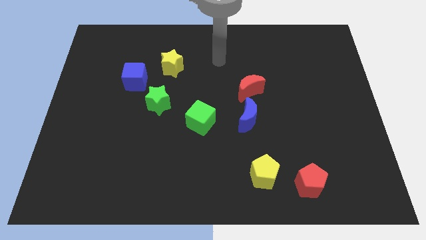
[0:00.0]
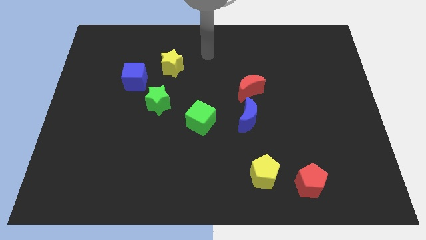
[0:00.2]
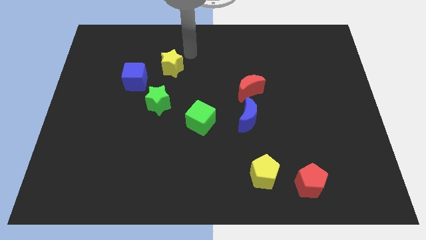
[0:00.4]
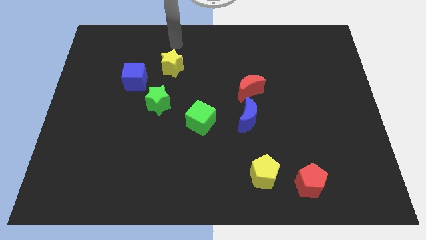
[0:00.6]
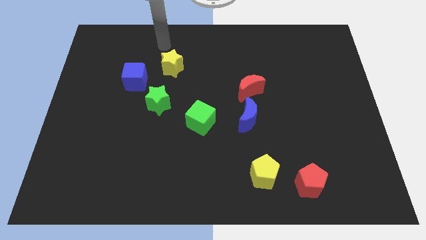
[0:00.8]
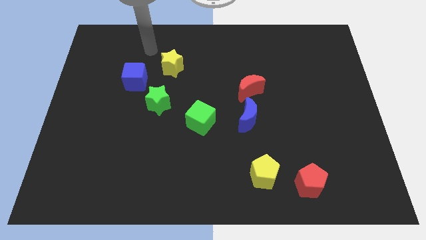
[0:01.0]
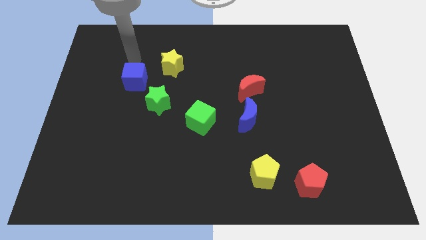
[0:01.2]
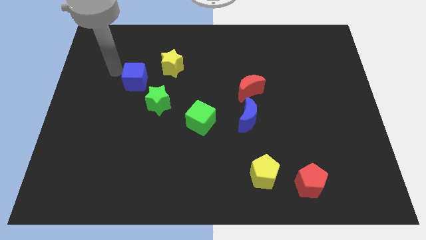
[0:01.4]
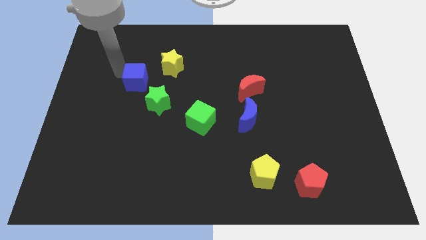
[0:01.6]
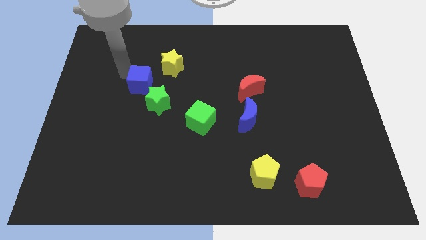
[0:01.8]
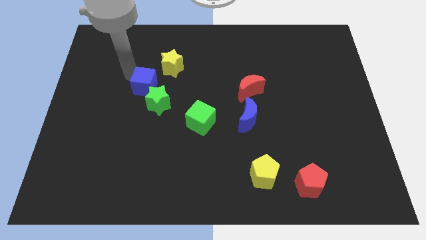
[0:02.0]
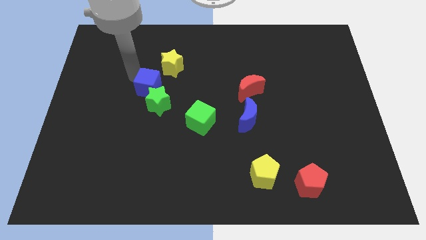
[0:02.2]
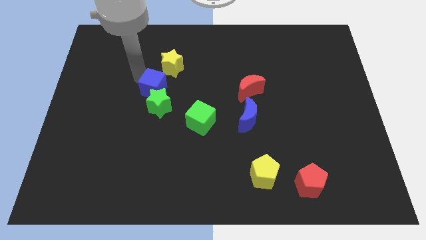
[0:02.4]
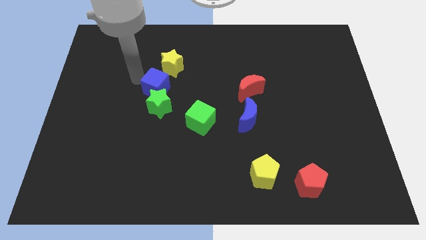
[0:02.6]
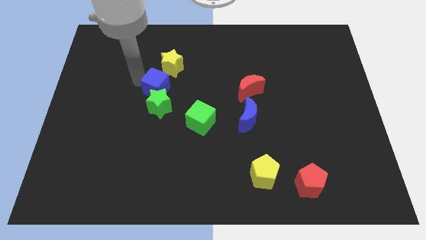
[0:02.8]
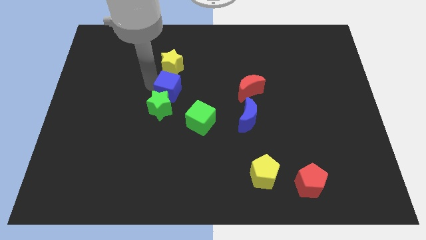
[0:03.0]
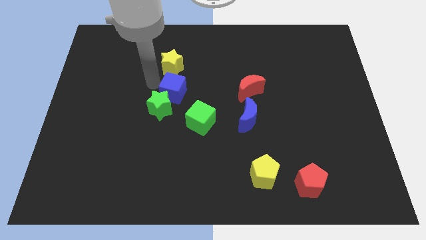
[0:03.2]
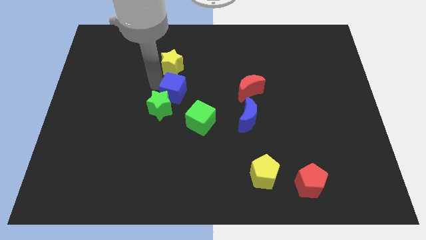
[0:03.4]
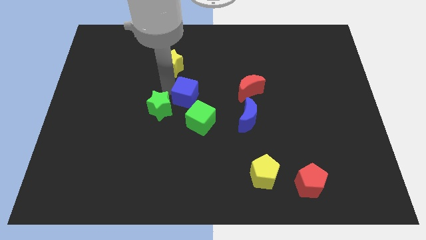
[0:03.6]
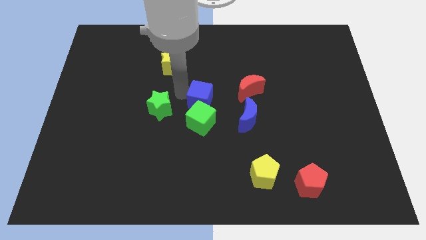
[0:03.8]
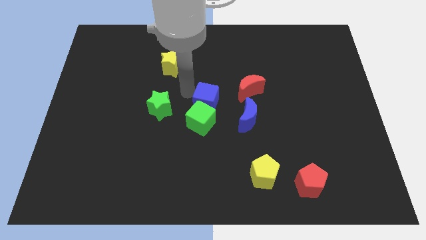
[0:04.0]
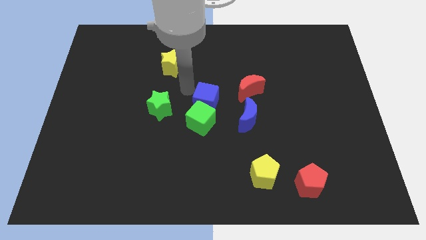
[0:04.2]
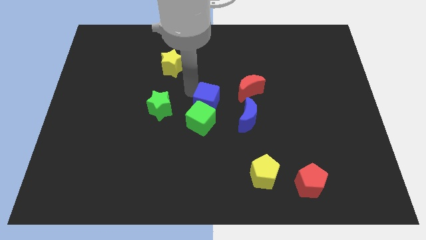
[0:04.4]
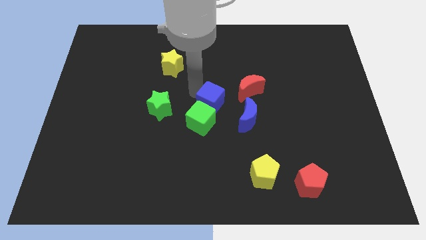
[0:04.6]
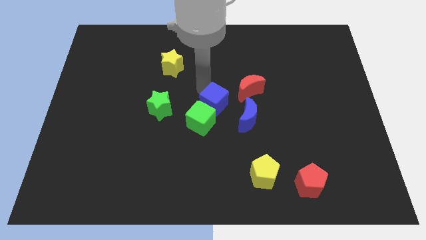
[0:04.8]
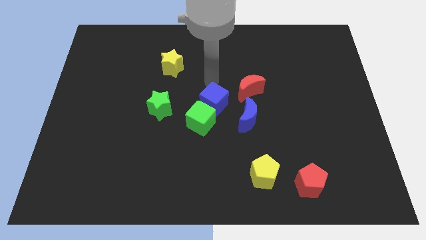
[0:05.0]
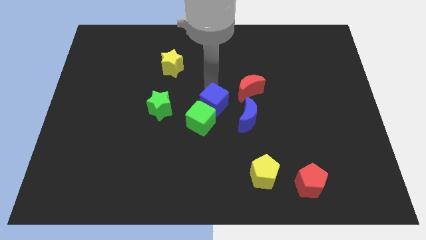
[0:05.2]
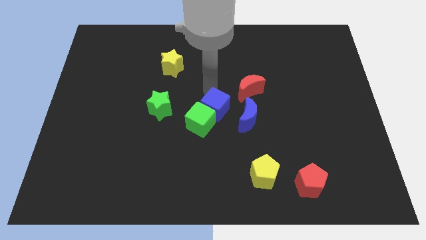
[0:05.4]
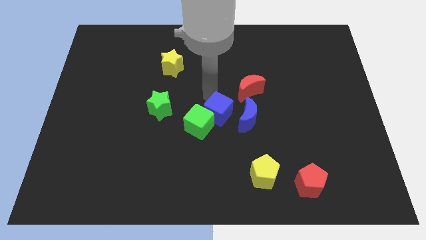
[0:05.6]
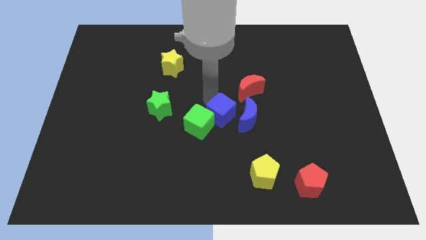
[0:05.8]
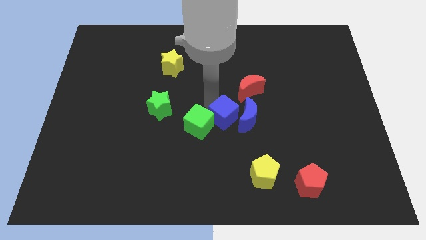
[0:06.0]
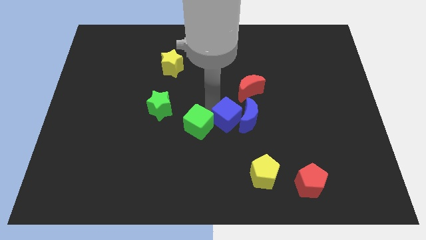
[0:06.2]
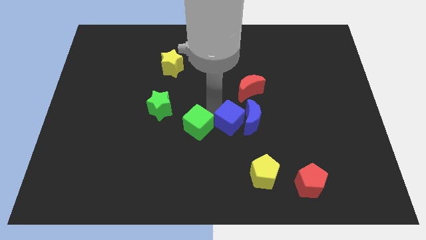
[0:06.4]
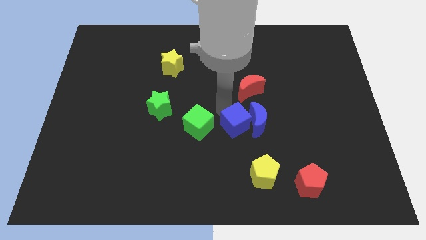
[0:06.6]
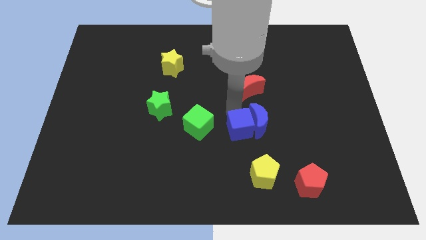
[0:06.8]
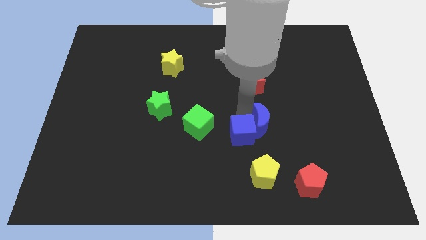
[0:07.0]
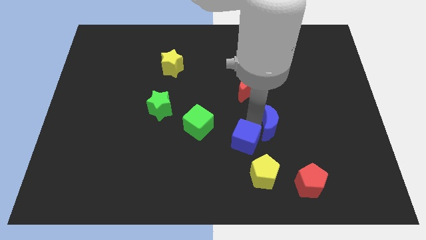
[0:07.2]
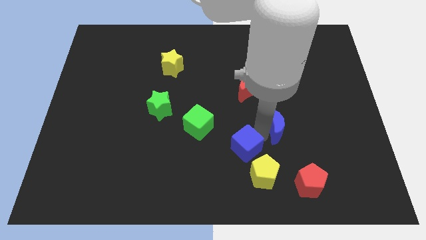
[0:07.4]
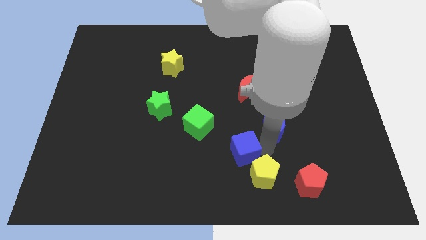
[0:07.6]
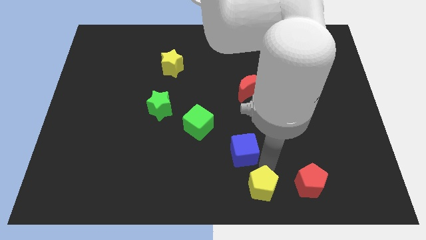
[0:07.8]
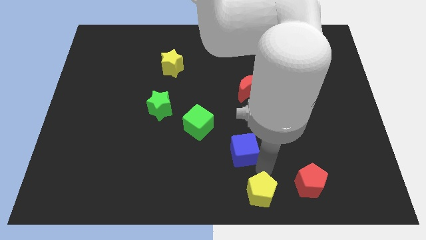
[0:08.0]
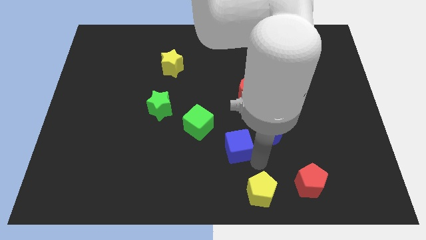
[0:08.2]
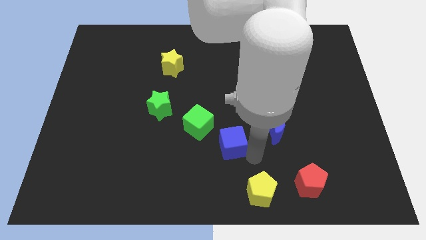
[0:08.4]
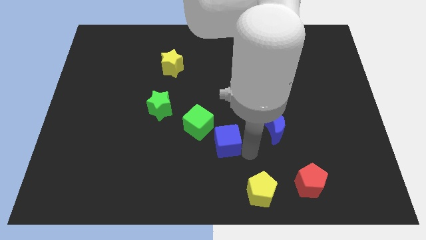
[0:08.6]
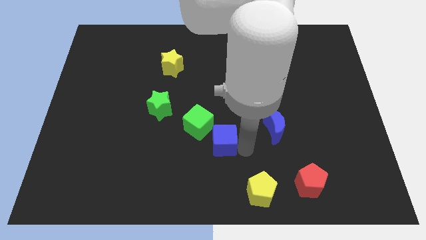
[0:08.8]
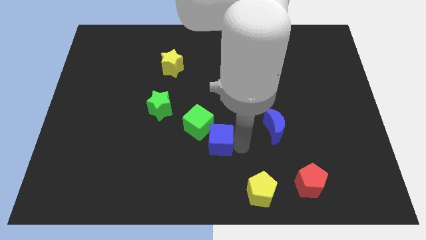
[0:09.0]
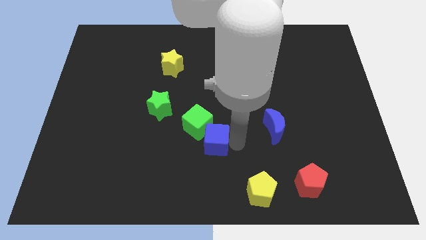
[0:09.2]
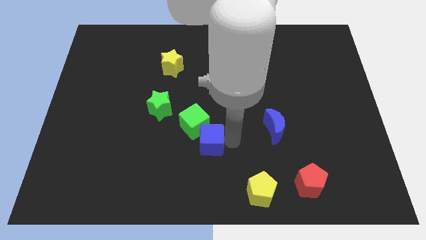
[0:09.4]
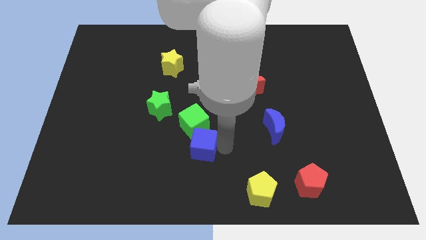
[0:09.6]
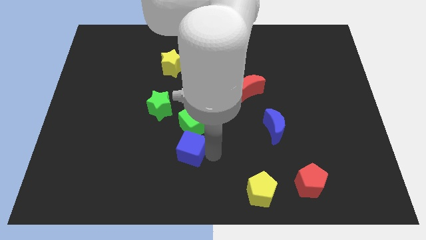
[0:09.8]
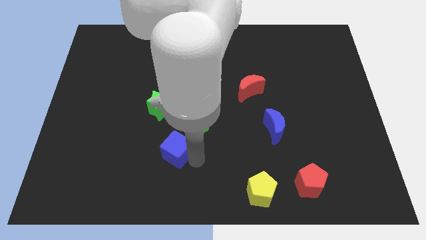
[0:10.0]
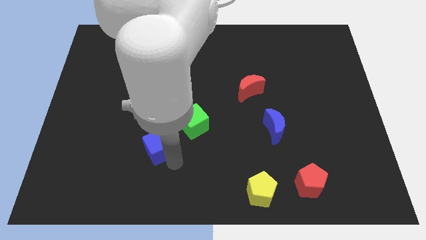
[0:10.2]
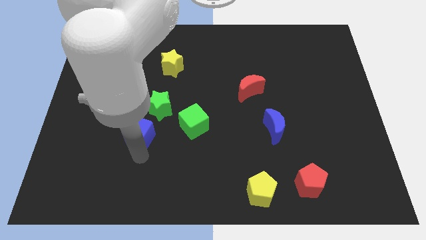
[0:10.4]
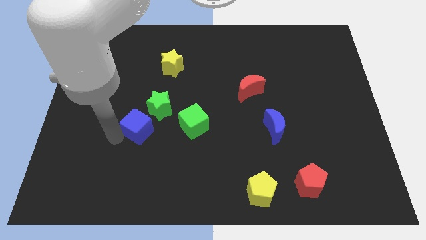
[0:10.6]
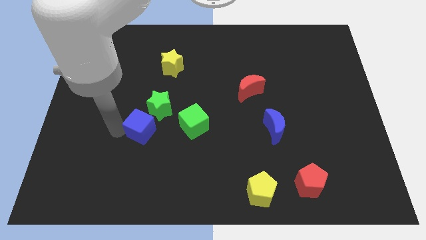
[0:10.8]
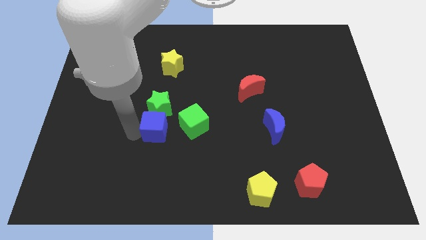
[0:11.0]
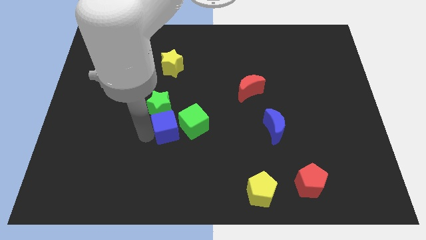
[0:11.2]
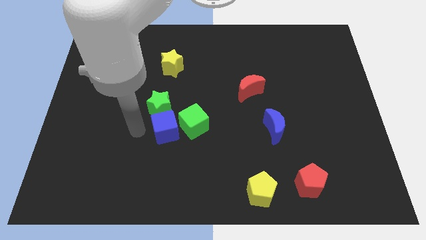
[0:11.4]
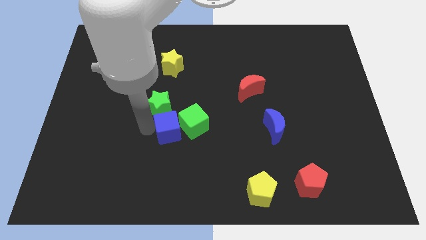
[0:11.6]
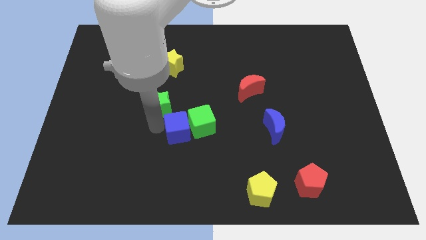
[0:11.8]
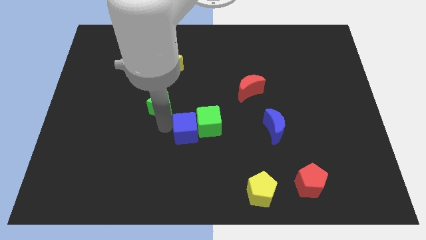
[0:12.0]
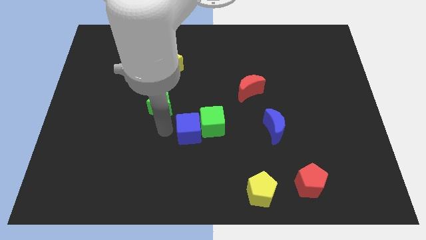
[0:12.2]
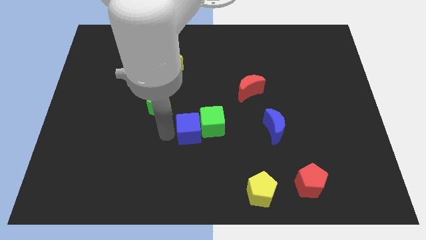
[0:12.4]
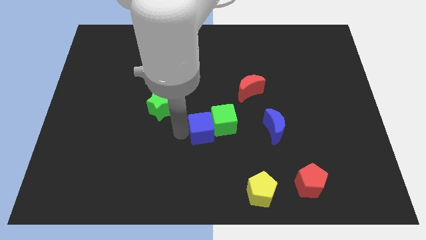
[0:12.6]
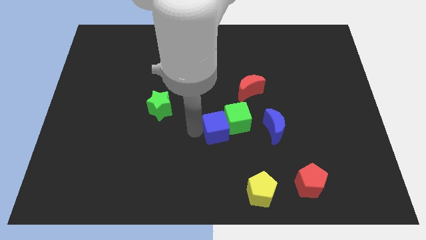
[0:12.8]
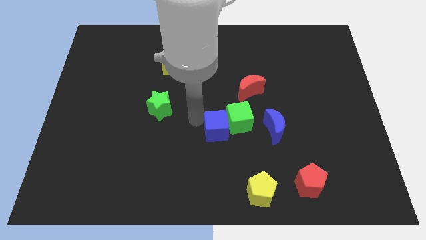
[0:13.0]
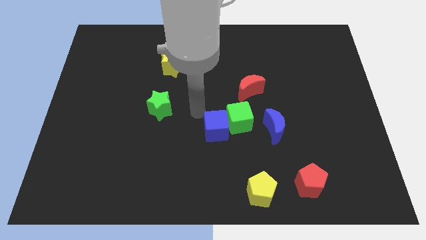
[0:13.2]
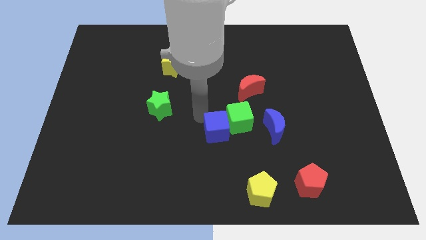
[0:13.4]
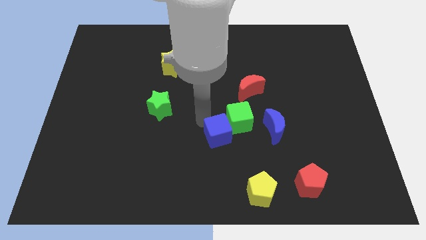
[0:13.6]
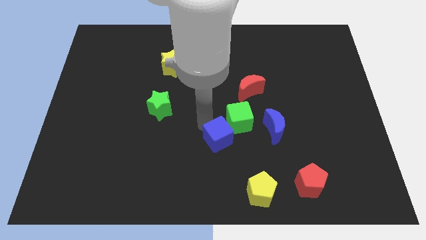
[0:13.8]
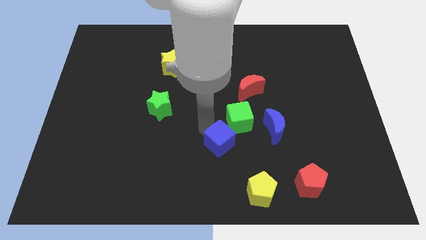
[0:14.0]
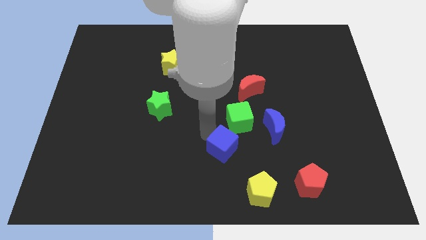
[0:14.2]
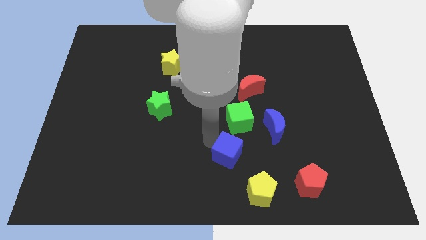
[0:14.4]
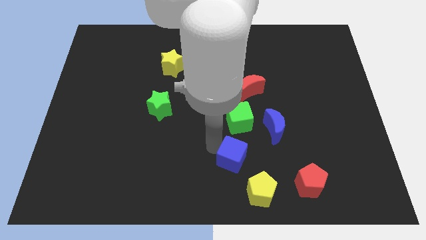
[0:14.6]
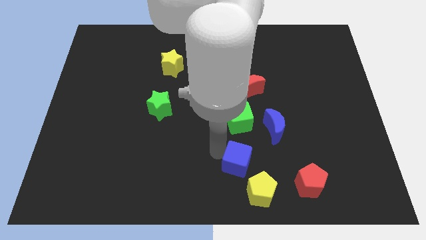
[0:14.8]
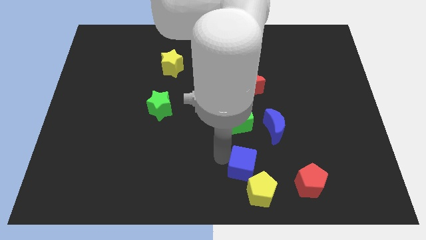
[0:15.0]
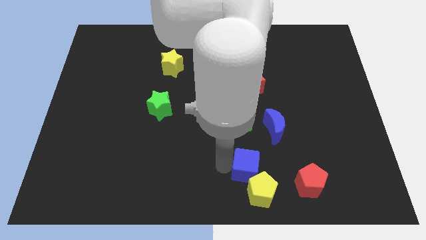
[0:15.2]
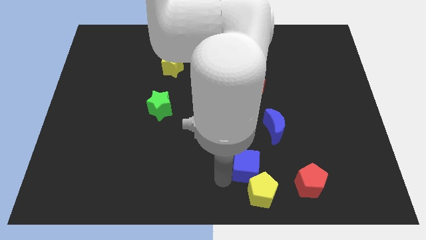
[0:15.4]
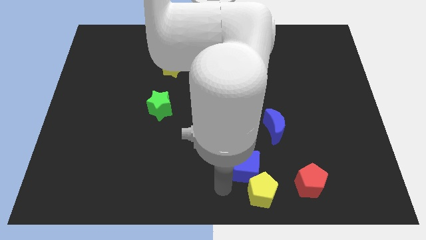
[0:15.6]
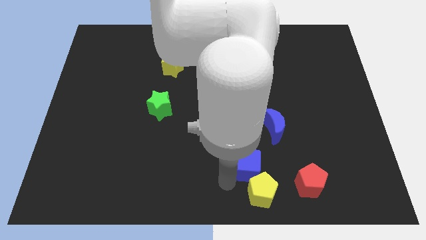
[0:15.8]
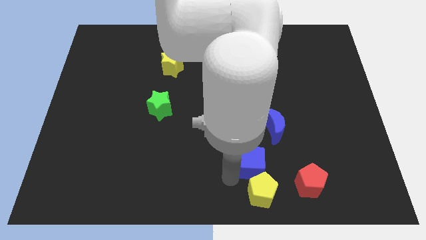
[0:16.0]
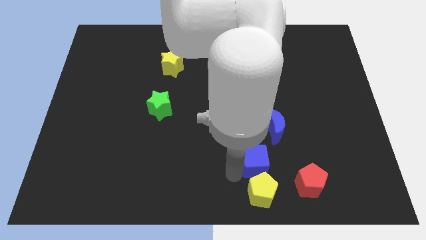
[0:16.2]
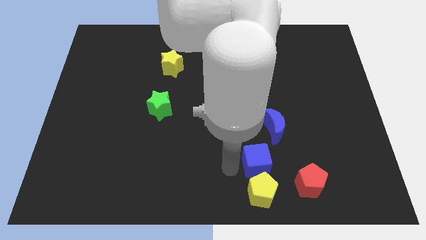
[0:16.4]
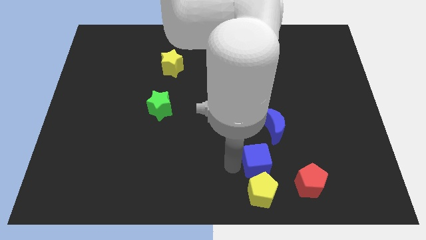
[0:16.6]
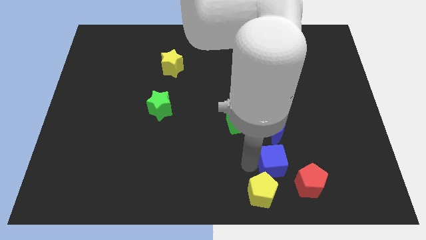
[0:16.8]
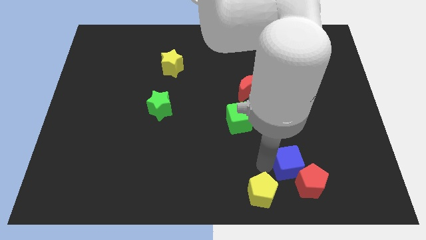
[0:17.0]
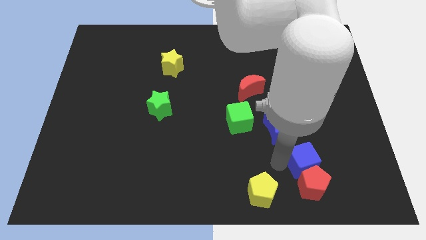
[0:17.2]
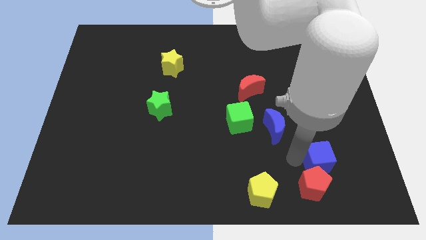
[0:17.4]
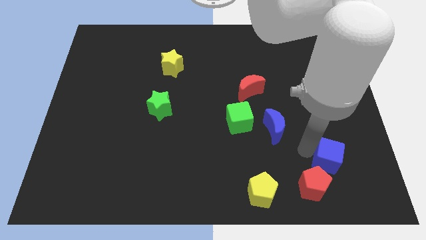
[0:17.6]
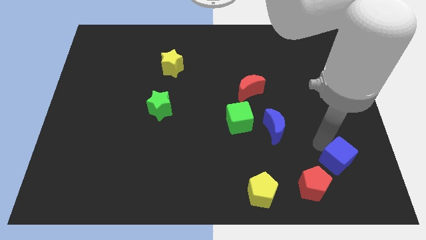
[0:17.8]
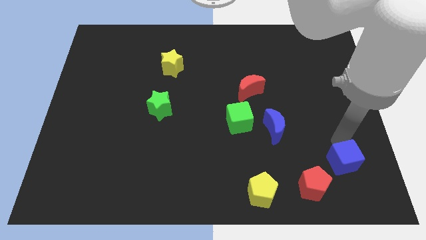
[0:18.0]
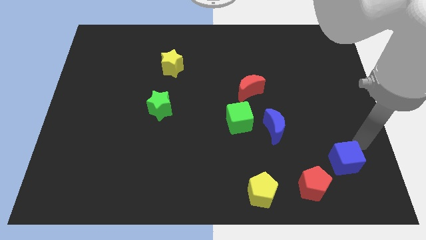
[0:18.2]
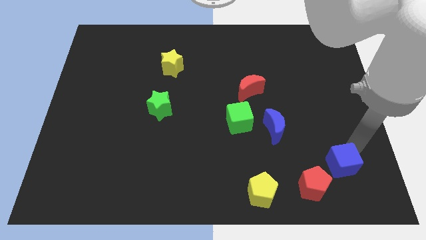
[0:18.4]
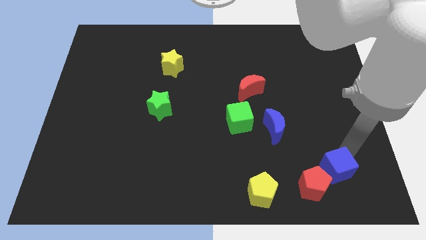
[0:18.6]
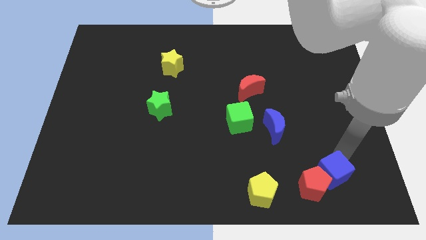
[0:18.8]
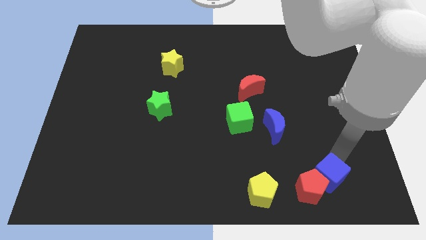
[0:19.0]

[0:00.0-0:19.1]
put the blue cube to the right side of the yellow pentagon
